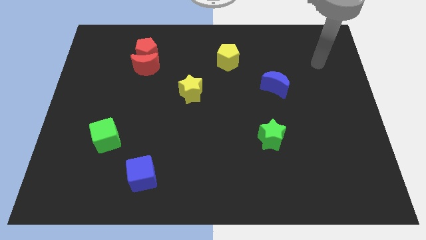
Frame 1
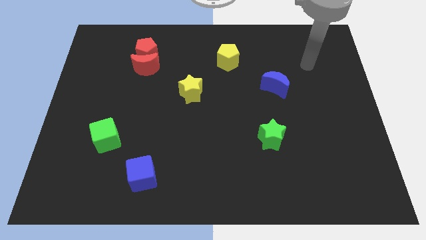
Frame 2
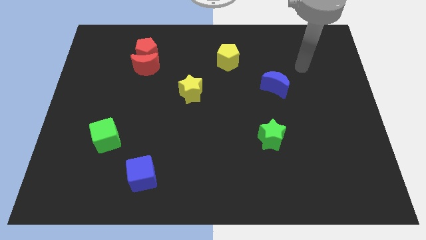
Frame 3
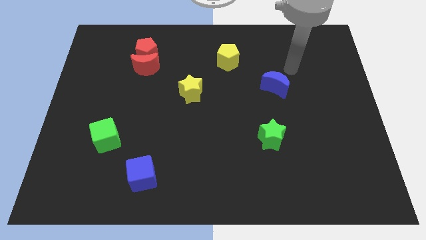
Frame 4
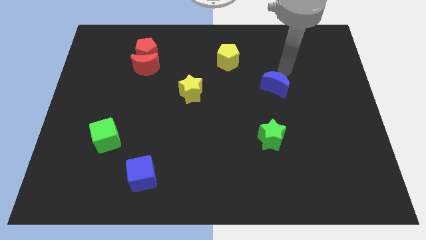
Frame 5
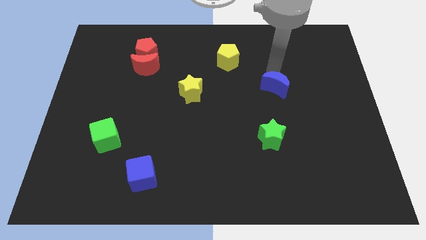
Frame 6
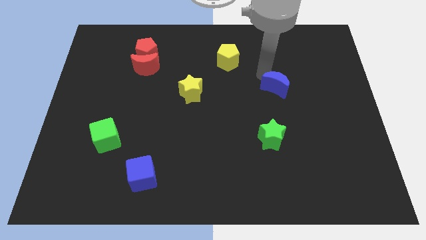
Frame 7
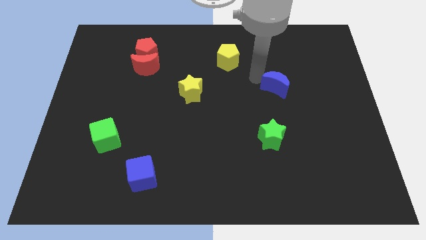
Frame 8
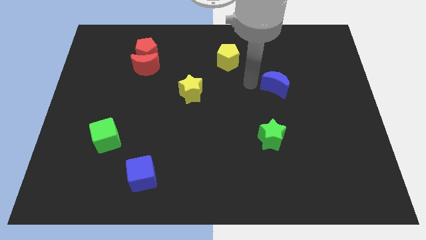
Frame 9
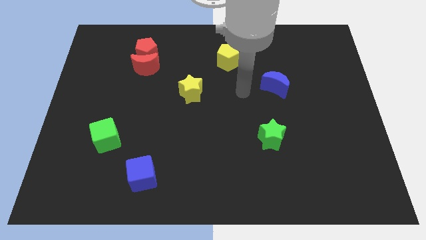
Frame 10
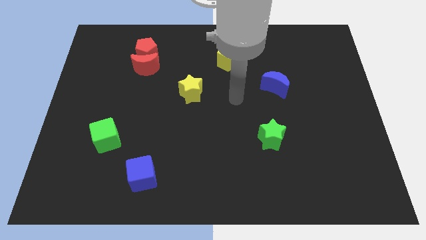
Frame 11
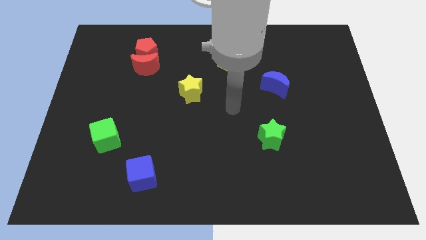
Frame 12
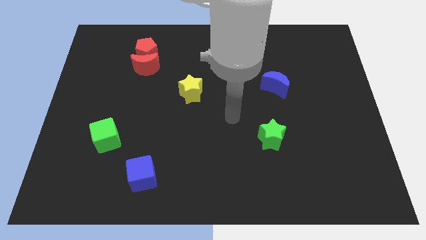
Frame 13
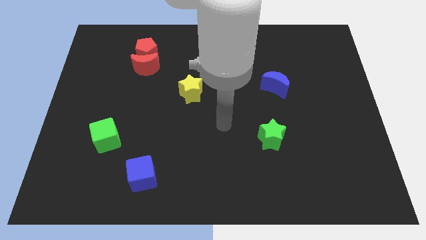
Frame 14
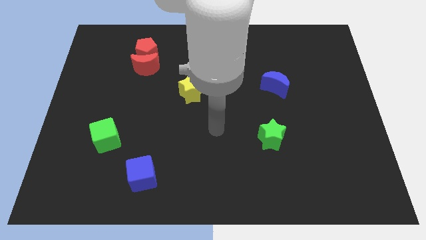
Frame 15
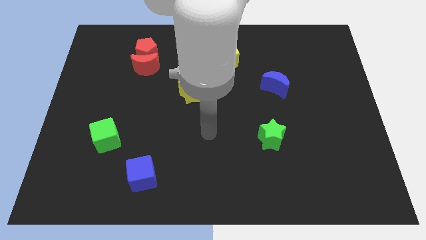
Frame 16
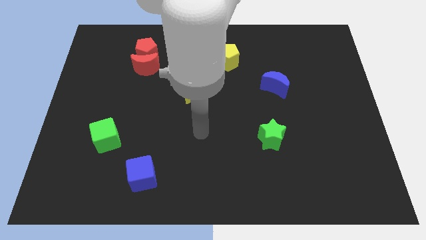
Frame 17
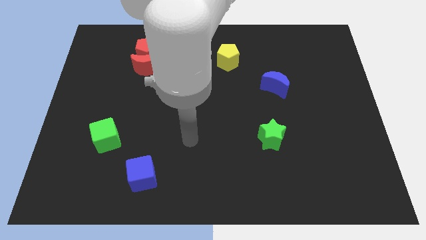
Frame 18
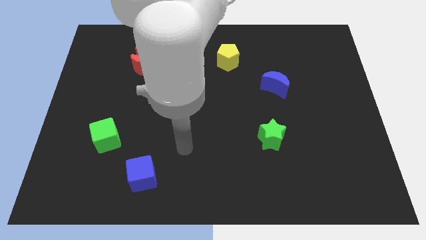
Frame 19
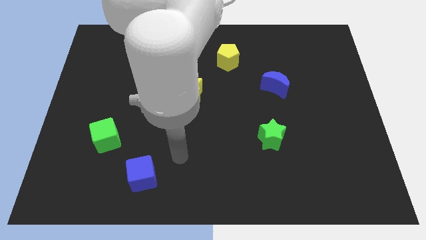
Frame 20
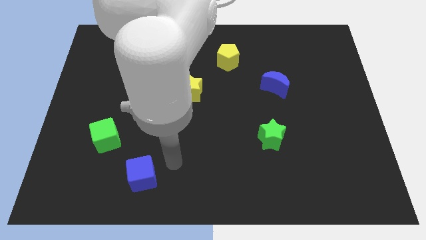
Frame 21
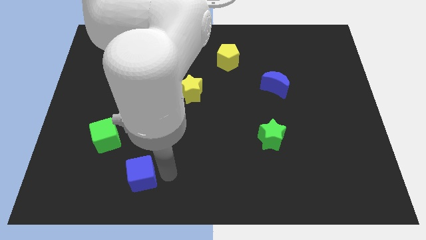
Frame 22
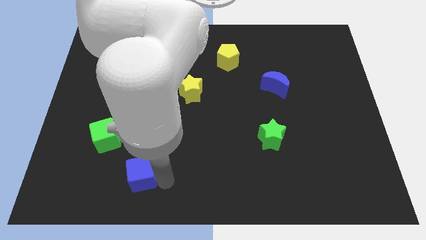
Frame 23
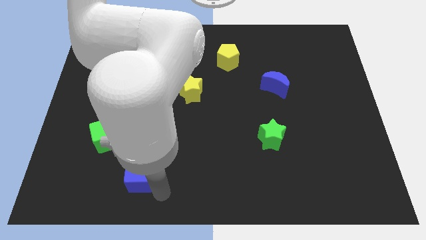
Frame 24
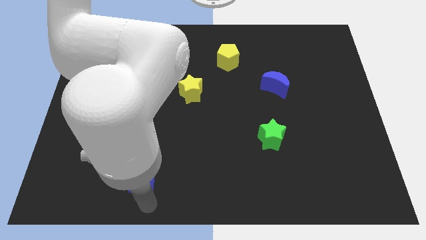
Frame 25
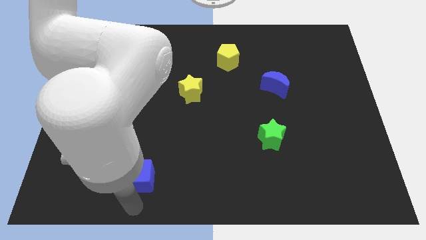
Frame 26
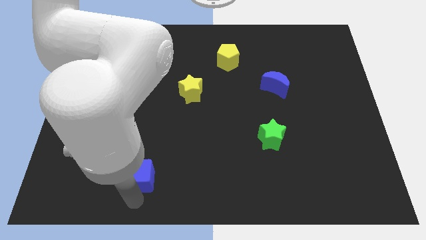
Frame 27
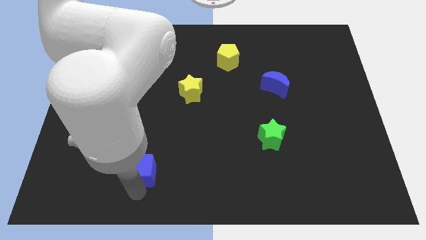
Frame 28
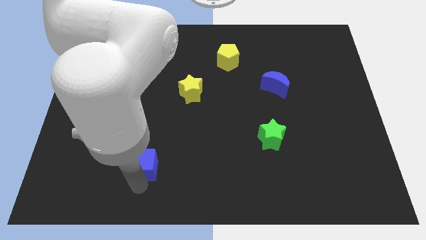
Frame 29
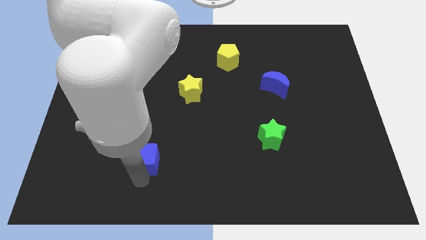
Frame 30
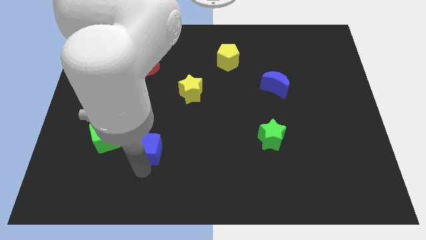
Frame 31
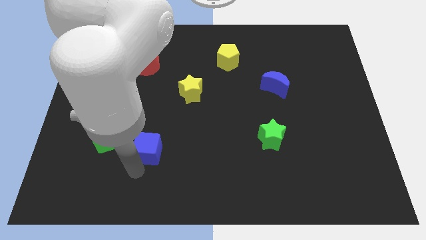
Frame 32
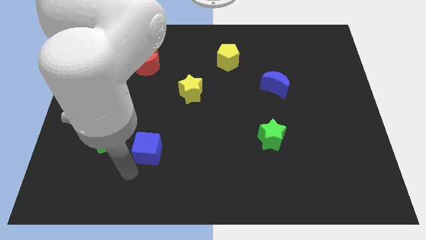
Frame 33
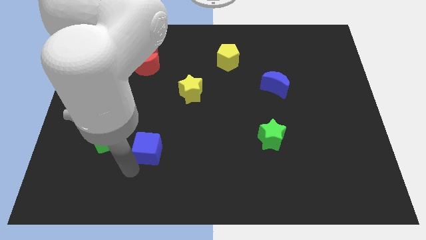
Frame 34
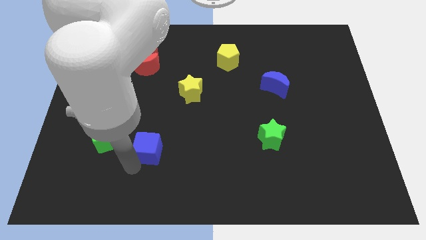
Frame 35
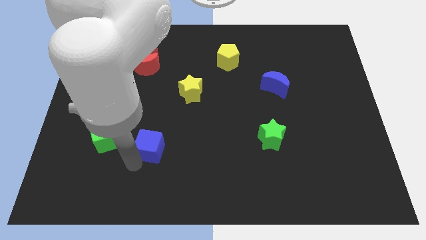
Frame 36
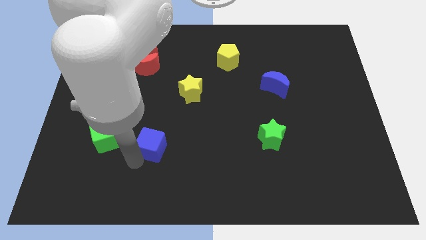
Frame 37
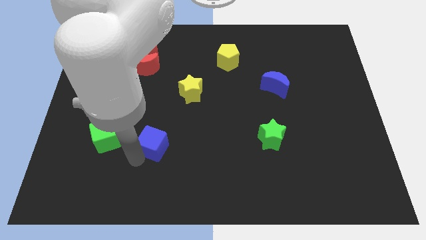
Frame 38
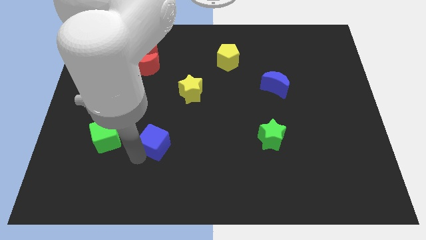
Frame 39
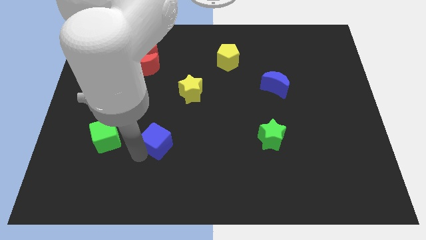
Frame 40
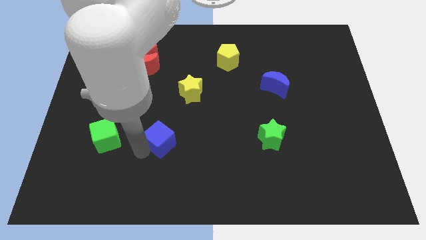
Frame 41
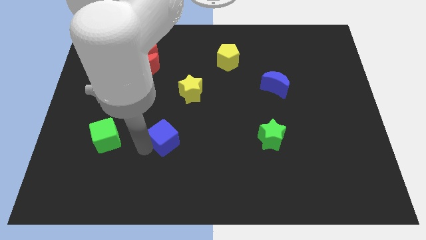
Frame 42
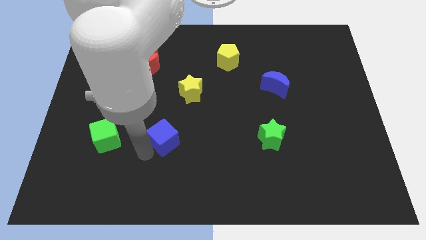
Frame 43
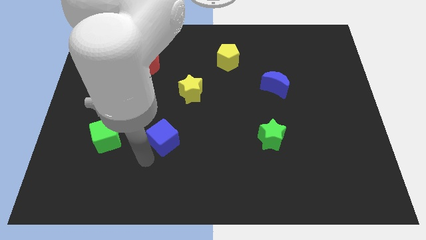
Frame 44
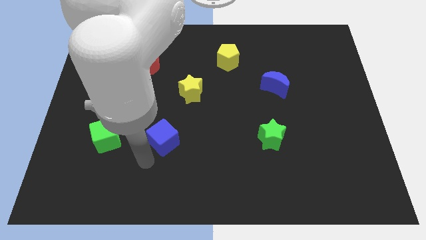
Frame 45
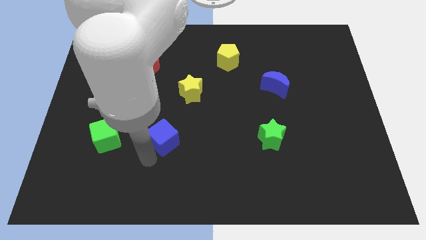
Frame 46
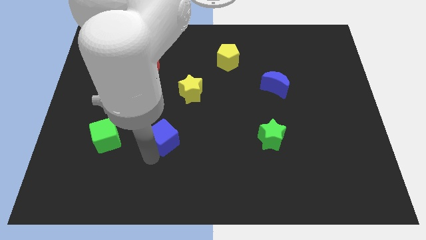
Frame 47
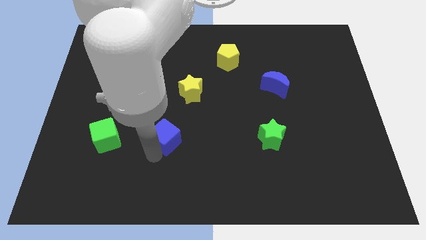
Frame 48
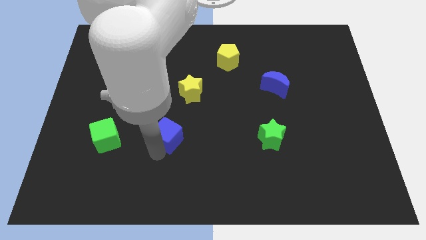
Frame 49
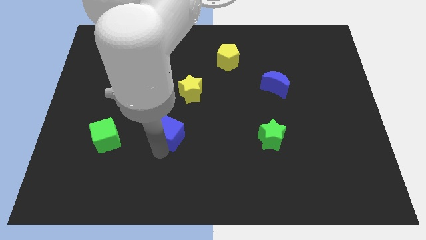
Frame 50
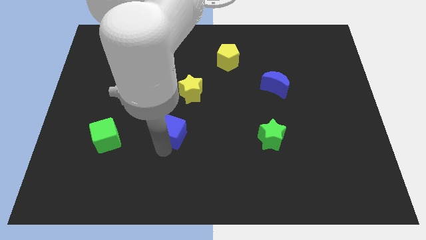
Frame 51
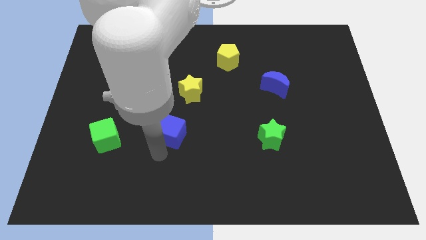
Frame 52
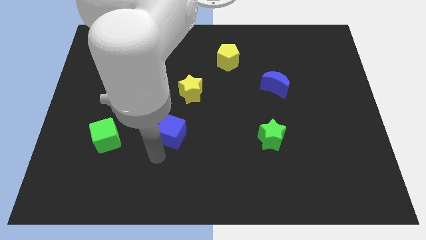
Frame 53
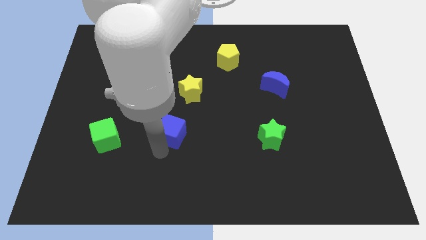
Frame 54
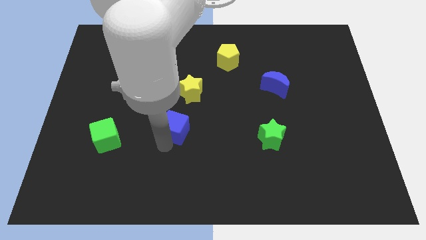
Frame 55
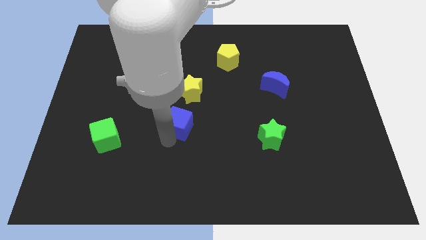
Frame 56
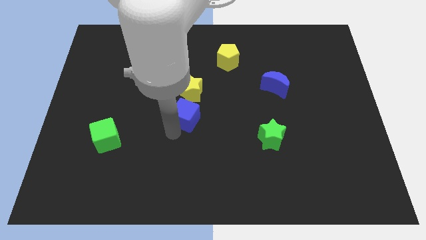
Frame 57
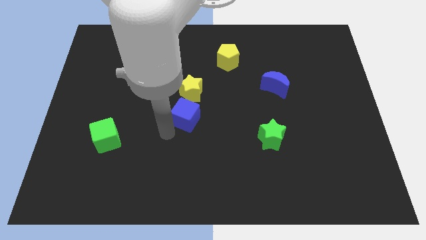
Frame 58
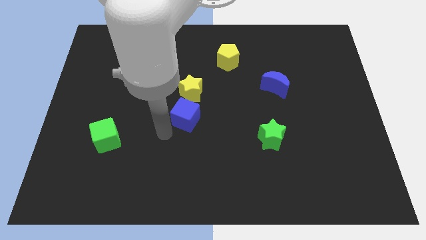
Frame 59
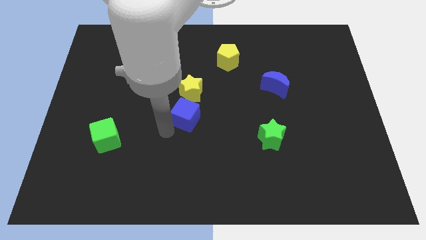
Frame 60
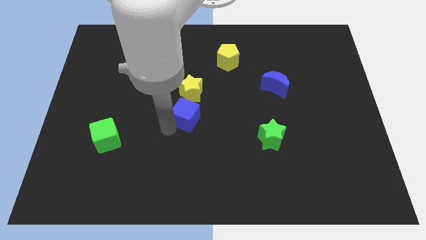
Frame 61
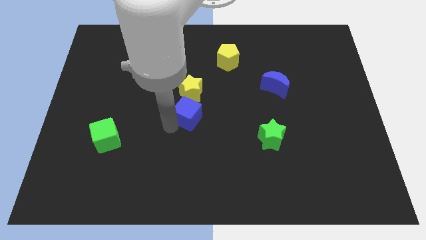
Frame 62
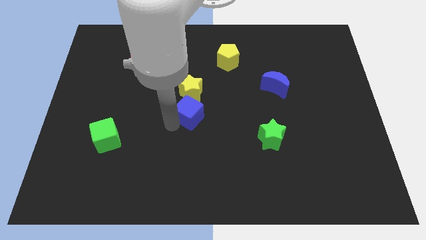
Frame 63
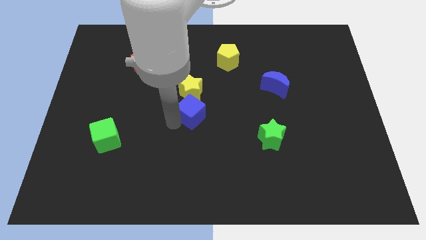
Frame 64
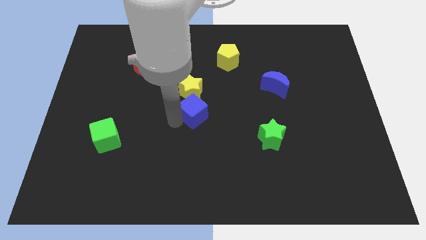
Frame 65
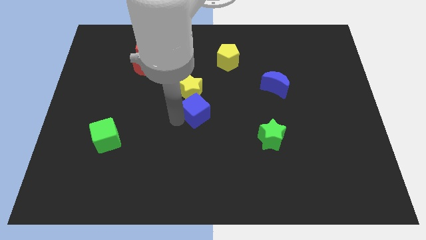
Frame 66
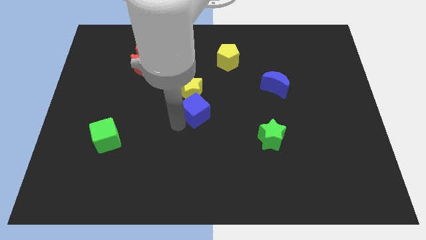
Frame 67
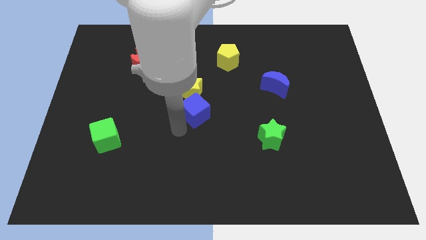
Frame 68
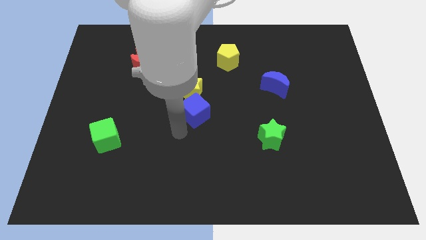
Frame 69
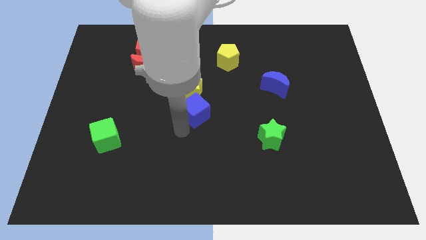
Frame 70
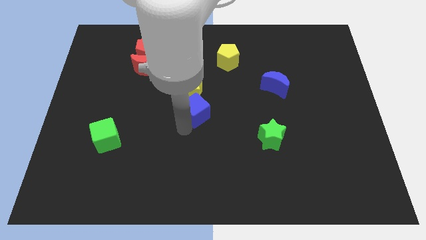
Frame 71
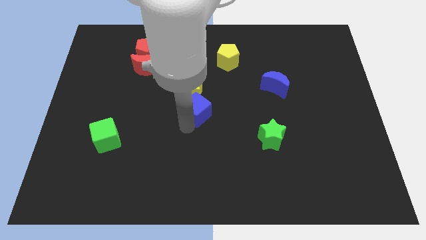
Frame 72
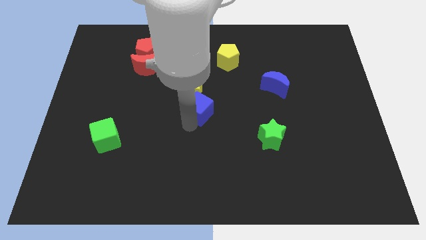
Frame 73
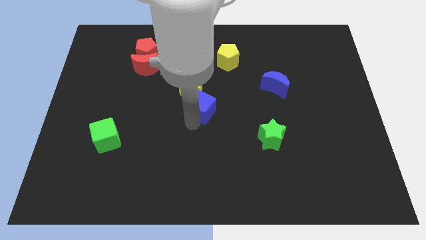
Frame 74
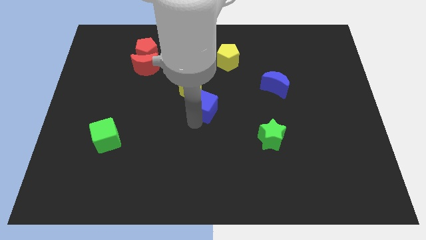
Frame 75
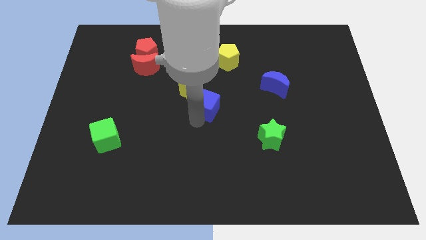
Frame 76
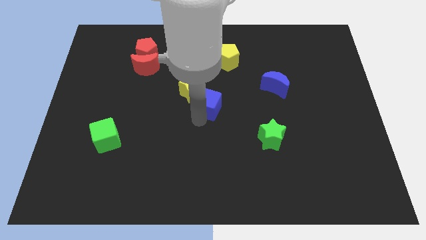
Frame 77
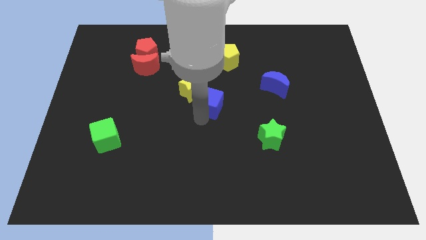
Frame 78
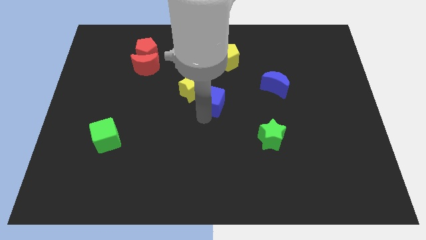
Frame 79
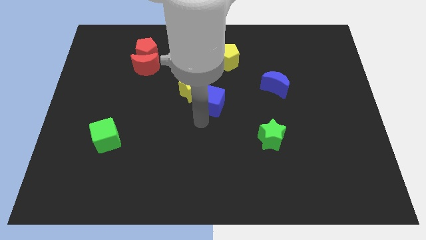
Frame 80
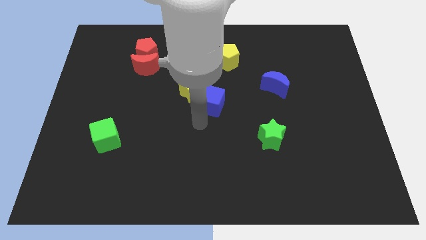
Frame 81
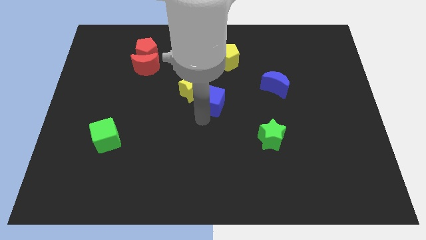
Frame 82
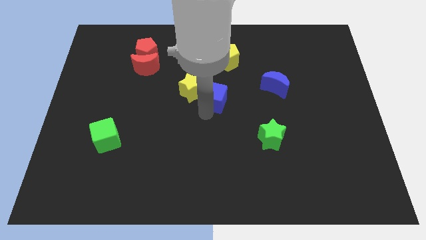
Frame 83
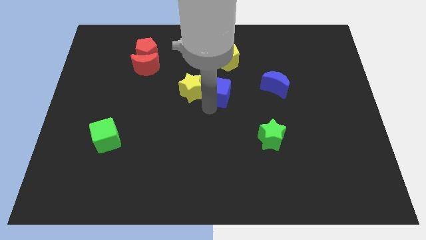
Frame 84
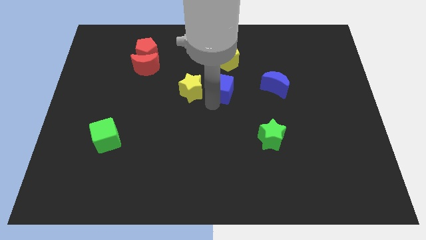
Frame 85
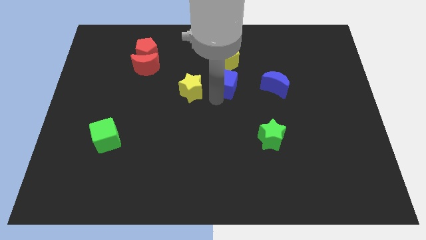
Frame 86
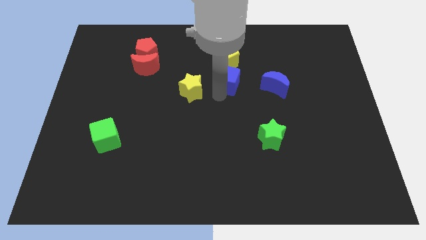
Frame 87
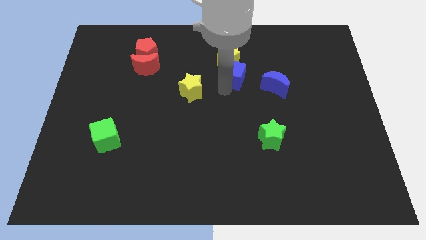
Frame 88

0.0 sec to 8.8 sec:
put the blue cube close to the yellow pentagon
